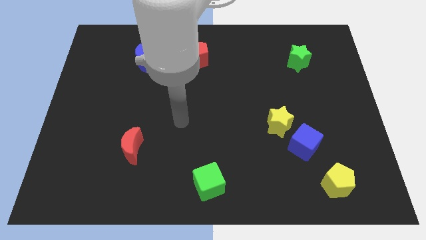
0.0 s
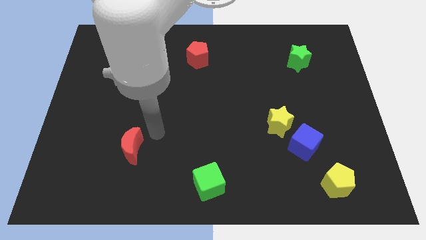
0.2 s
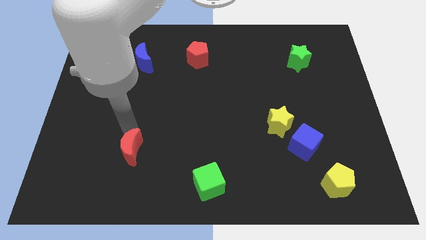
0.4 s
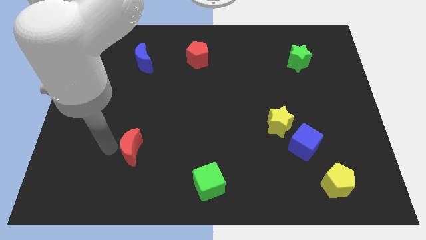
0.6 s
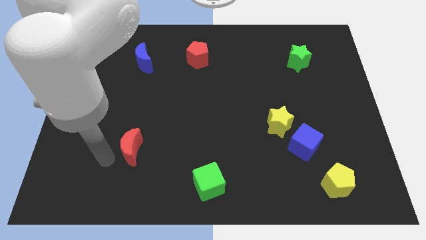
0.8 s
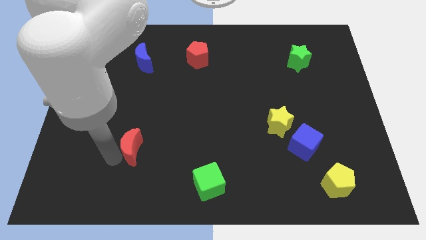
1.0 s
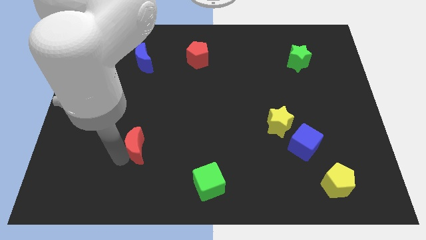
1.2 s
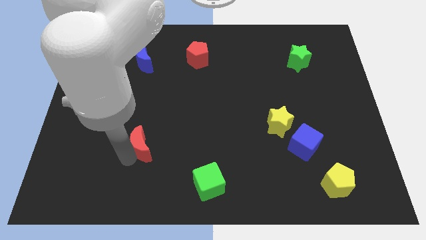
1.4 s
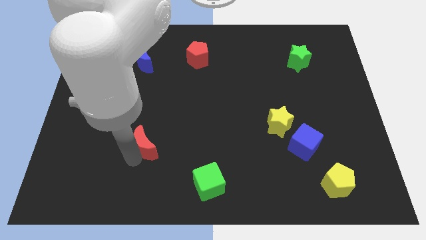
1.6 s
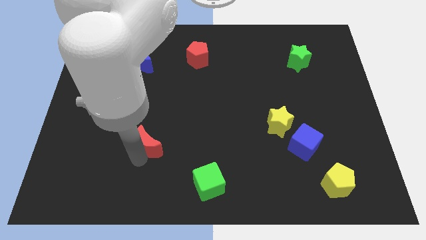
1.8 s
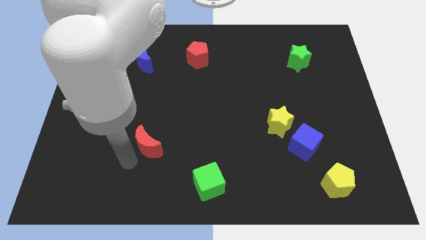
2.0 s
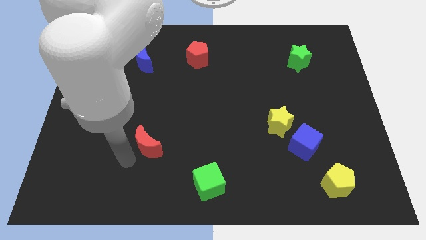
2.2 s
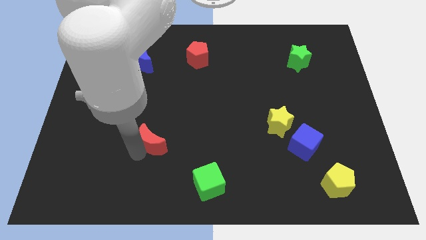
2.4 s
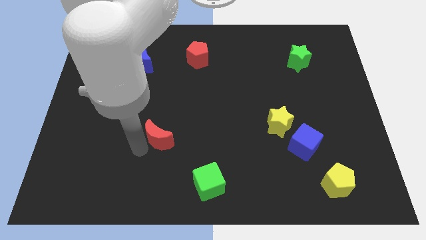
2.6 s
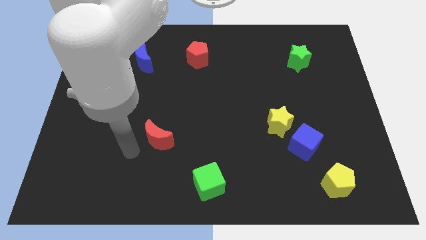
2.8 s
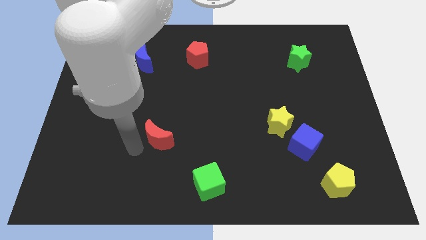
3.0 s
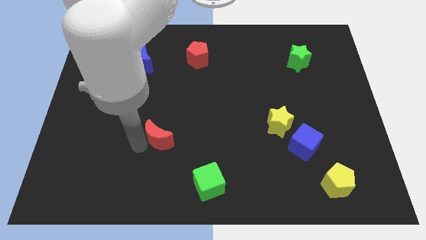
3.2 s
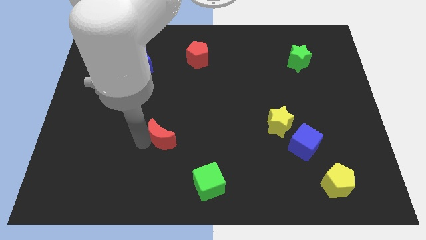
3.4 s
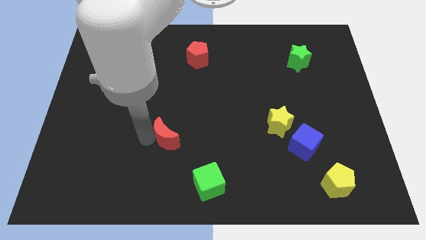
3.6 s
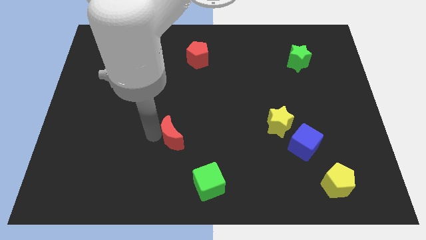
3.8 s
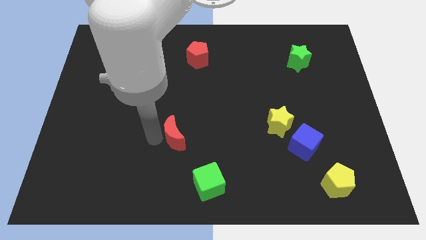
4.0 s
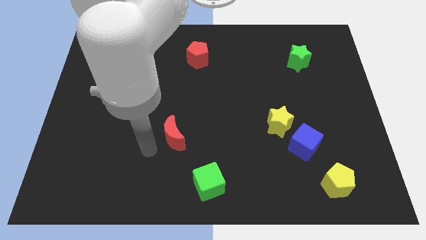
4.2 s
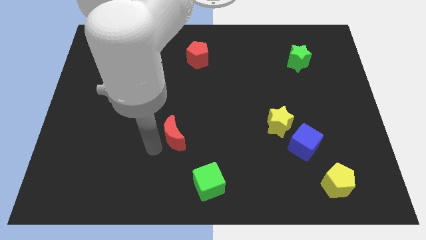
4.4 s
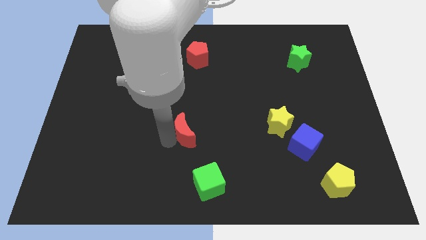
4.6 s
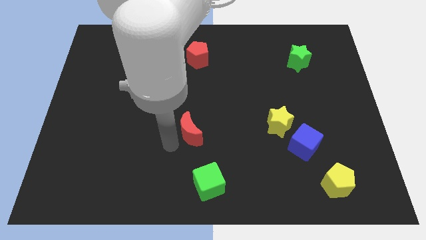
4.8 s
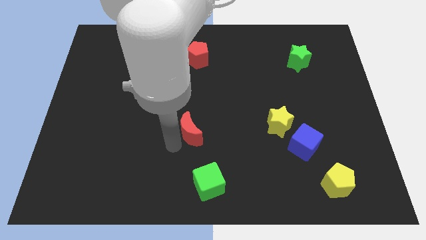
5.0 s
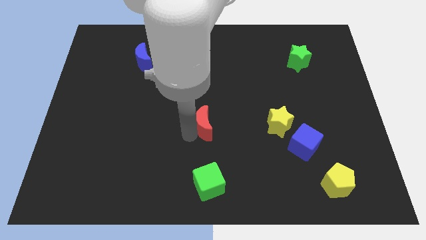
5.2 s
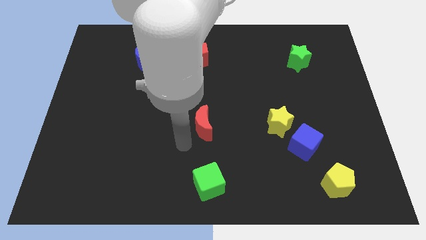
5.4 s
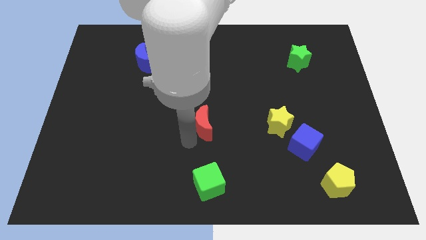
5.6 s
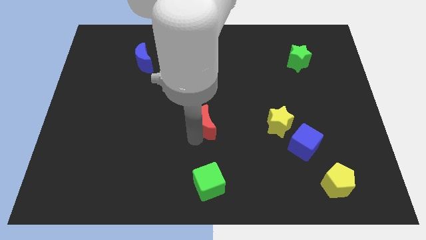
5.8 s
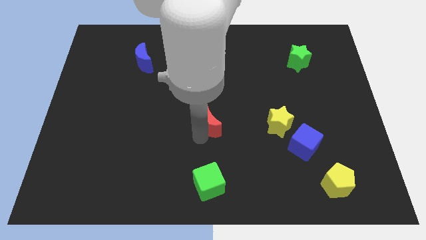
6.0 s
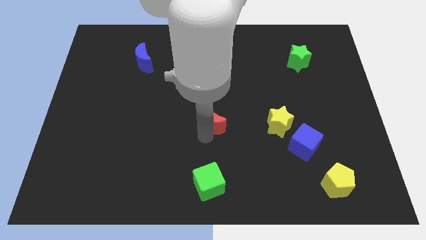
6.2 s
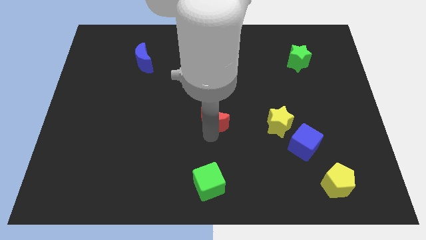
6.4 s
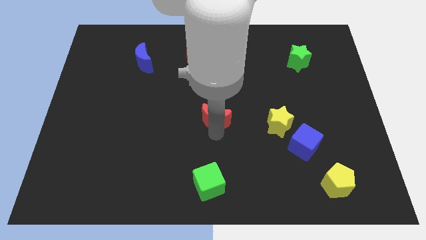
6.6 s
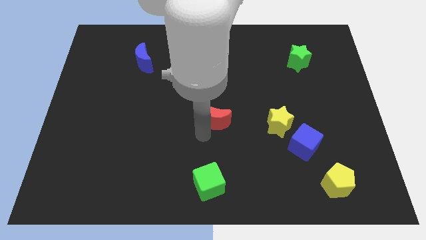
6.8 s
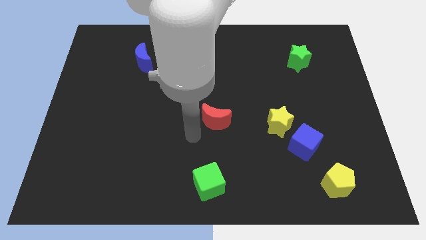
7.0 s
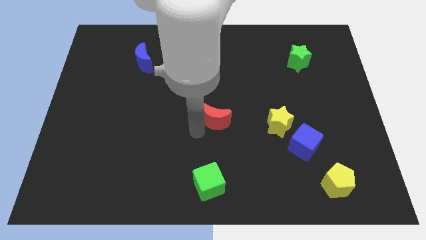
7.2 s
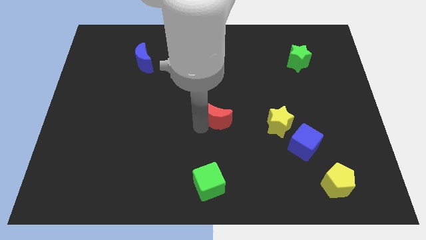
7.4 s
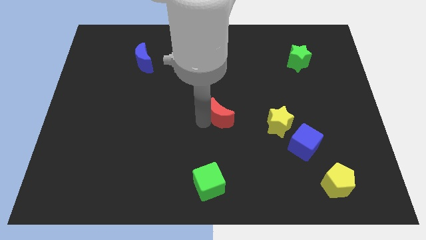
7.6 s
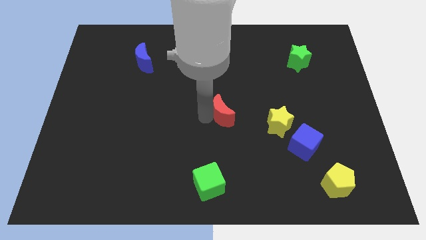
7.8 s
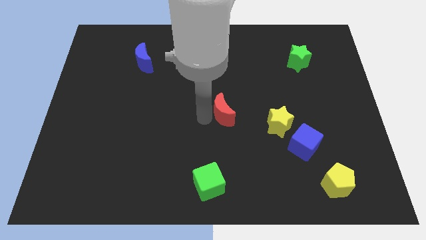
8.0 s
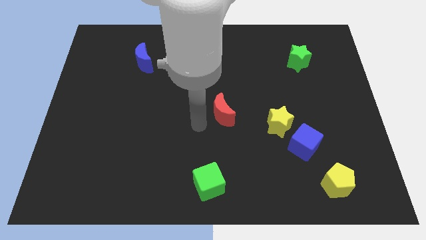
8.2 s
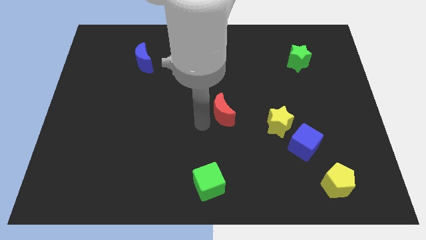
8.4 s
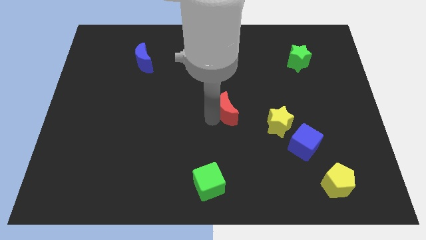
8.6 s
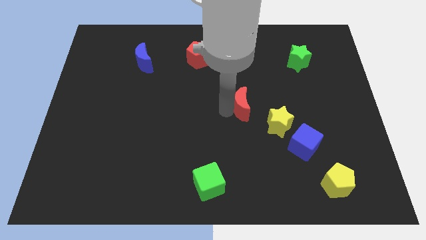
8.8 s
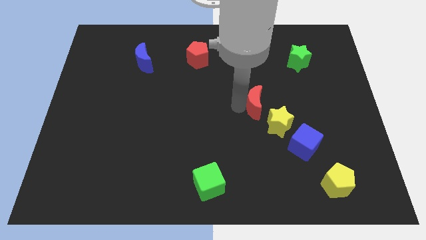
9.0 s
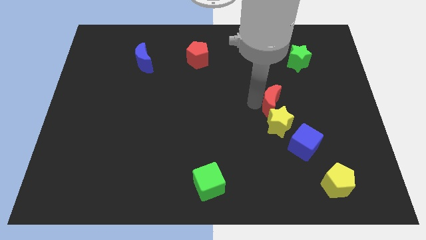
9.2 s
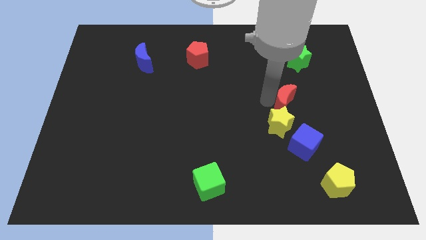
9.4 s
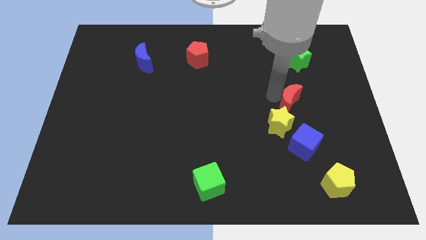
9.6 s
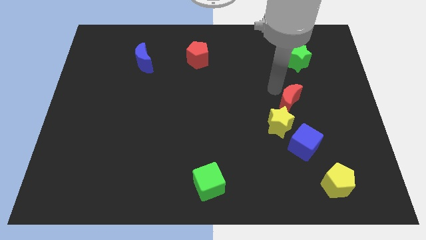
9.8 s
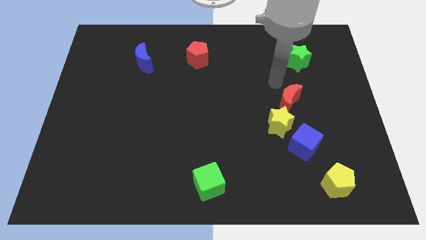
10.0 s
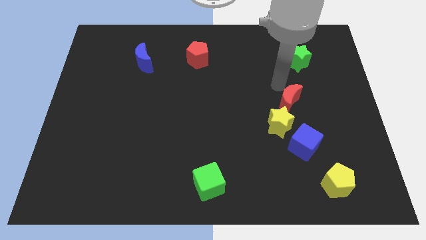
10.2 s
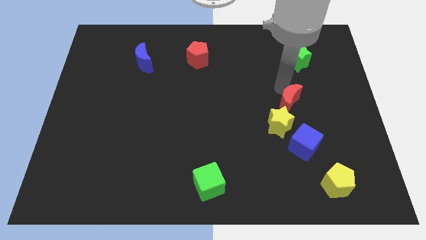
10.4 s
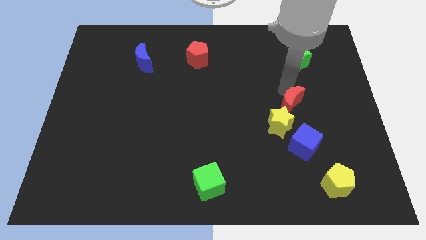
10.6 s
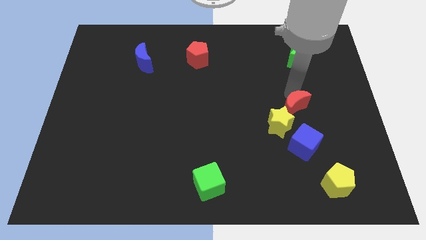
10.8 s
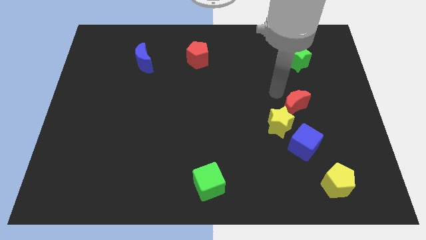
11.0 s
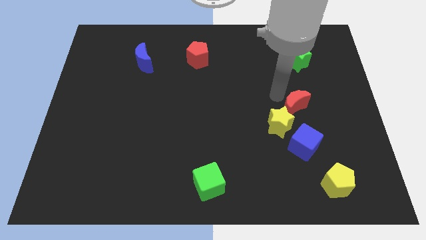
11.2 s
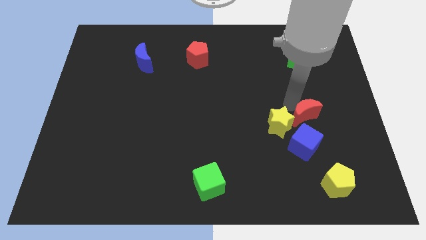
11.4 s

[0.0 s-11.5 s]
put the red moon to the top right of the blue cube
